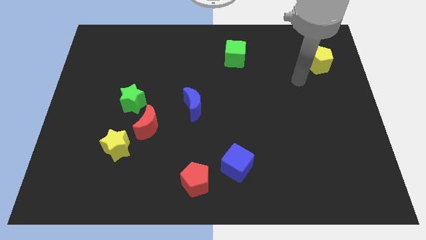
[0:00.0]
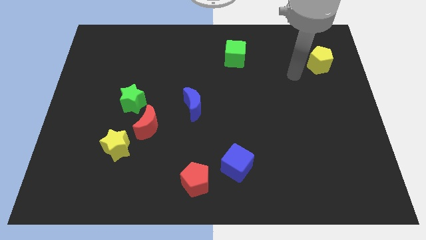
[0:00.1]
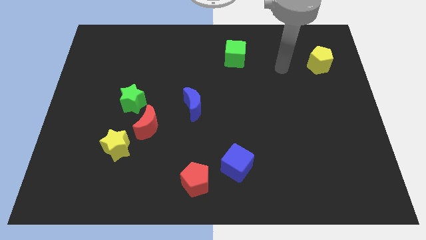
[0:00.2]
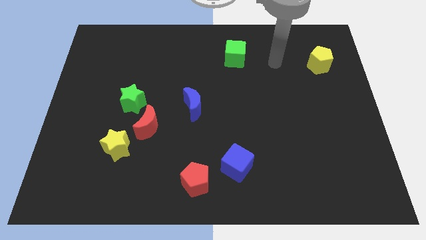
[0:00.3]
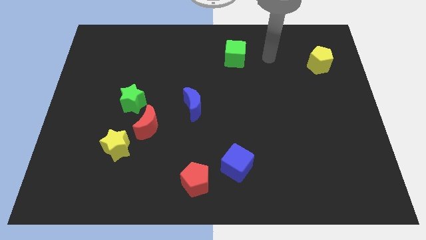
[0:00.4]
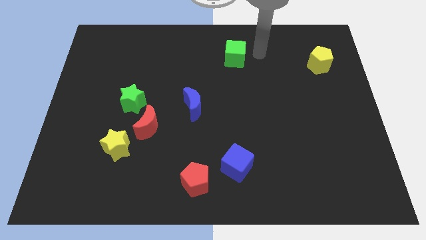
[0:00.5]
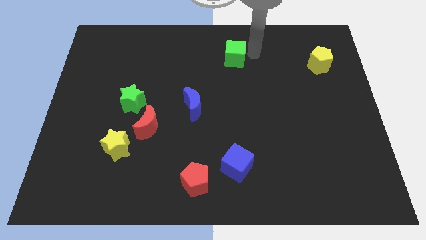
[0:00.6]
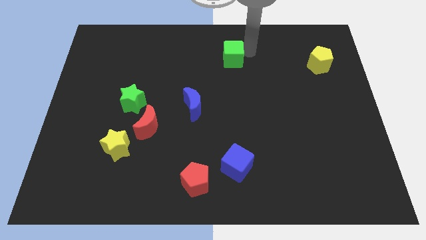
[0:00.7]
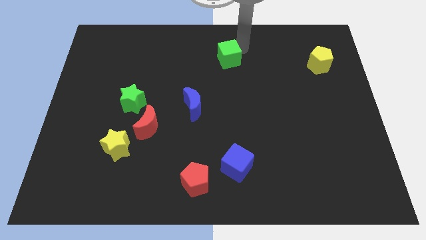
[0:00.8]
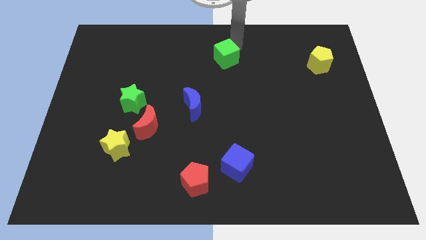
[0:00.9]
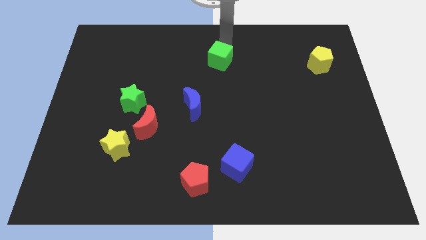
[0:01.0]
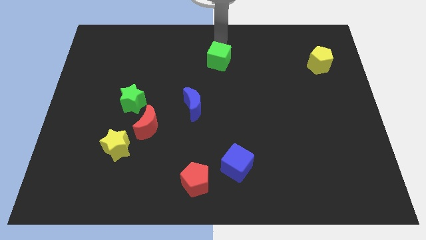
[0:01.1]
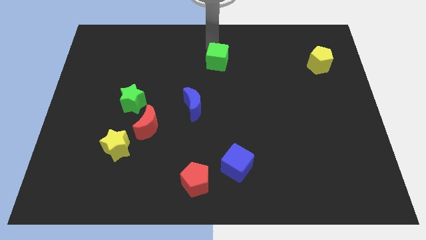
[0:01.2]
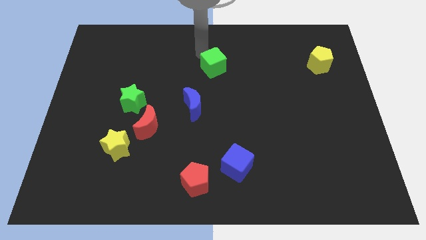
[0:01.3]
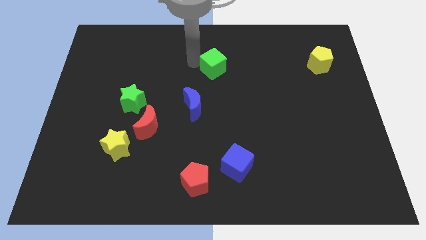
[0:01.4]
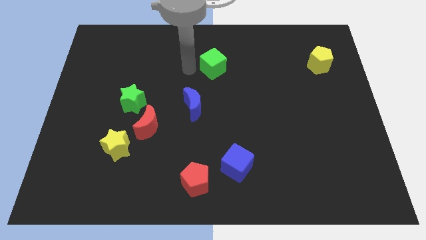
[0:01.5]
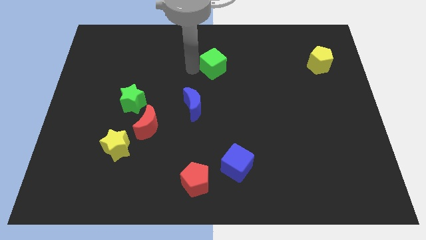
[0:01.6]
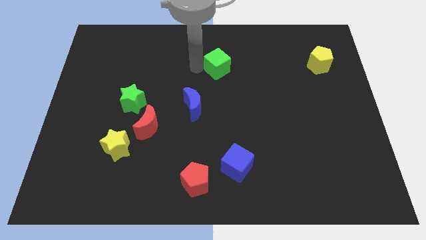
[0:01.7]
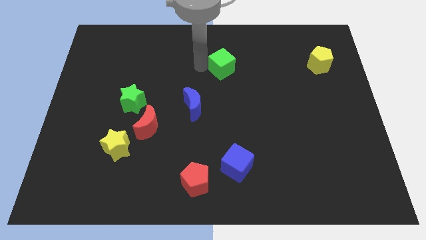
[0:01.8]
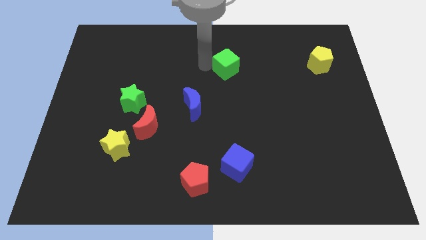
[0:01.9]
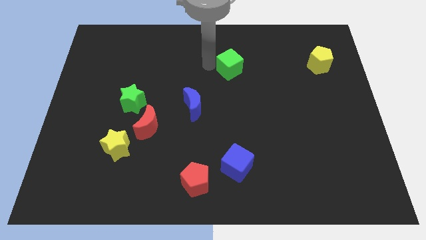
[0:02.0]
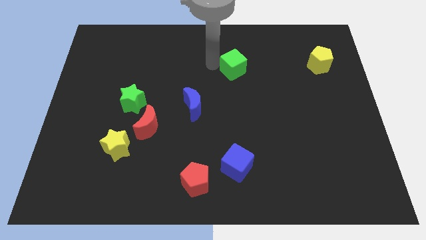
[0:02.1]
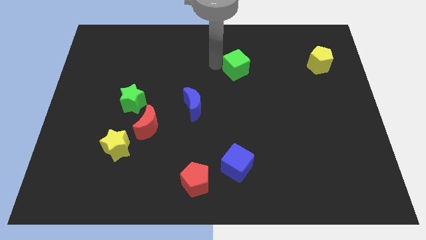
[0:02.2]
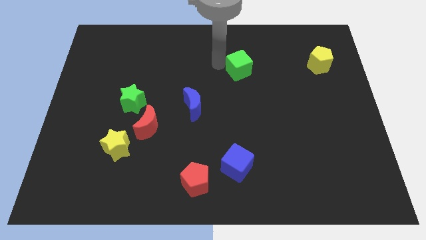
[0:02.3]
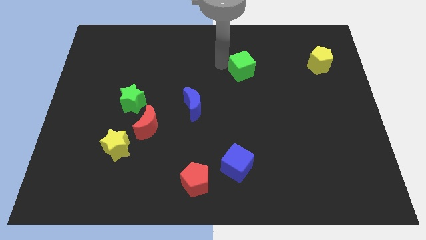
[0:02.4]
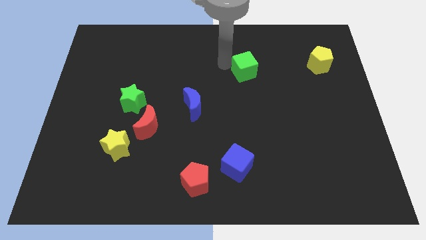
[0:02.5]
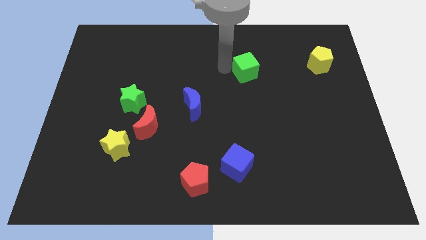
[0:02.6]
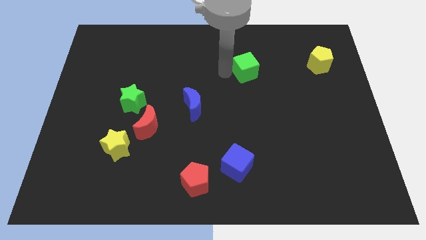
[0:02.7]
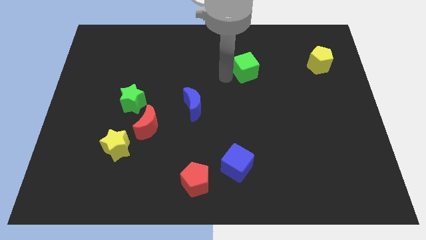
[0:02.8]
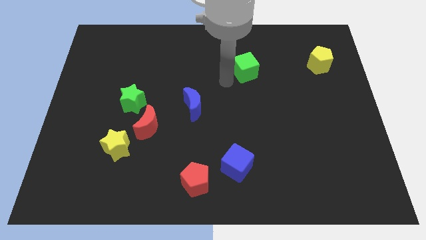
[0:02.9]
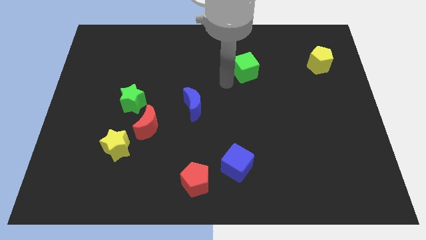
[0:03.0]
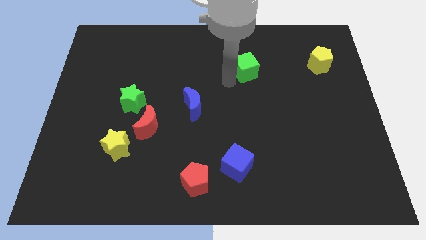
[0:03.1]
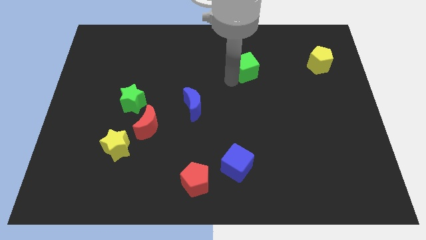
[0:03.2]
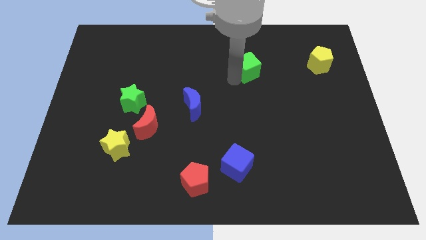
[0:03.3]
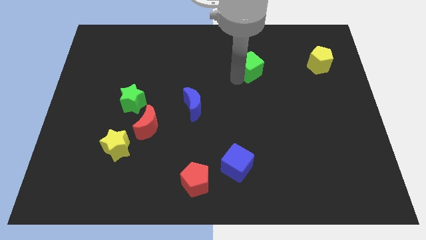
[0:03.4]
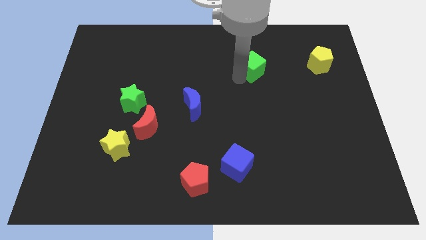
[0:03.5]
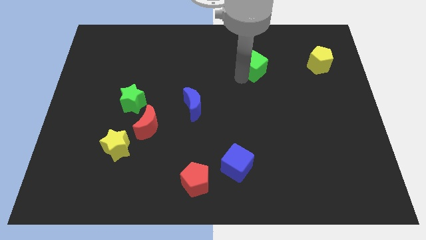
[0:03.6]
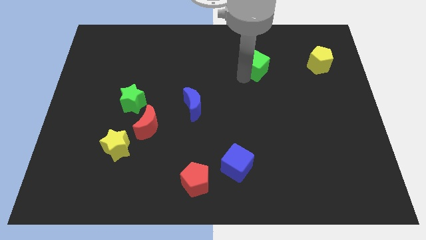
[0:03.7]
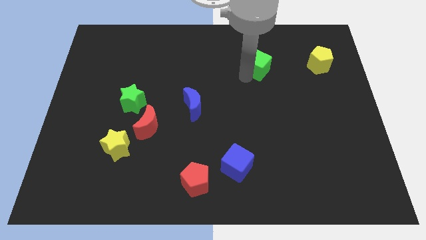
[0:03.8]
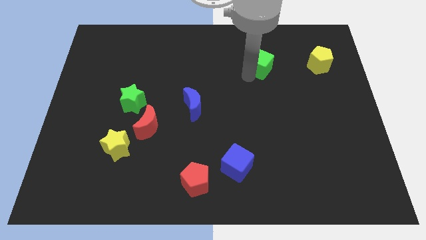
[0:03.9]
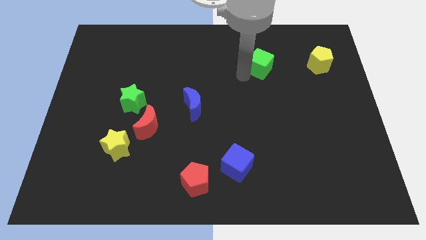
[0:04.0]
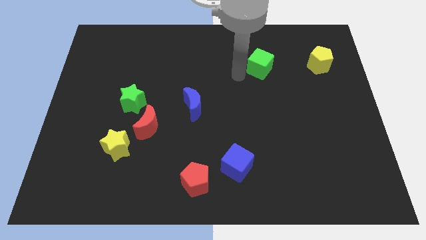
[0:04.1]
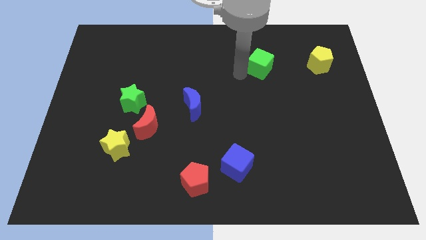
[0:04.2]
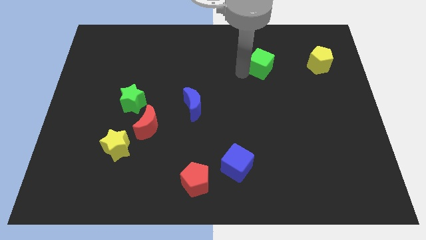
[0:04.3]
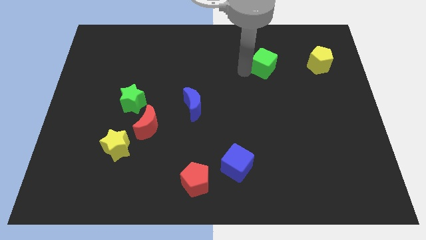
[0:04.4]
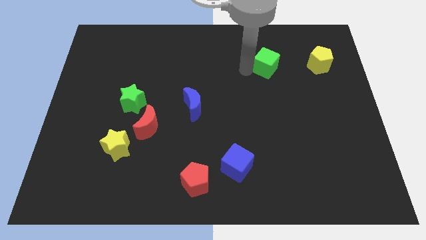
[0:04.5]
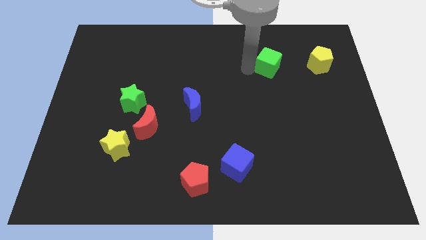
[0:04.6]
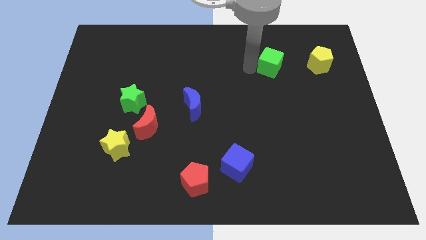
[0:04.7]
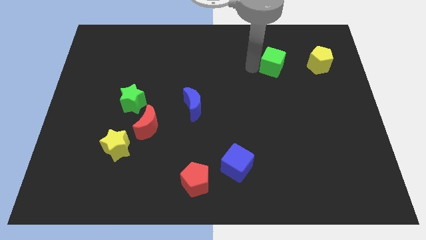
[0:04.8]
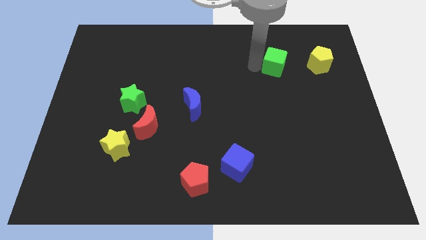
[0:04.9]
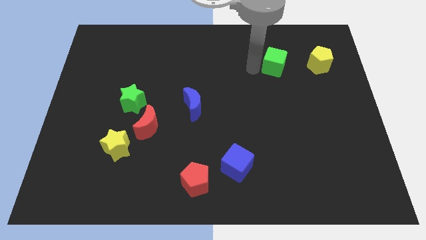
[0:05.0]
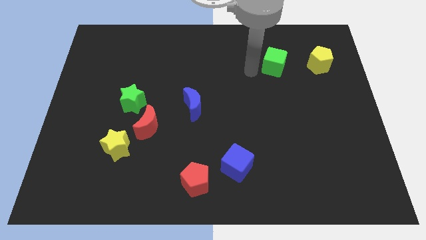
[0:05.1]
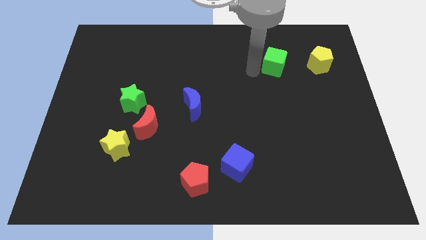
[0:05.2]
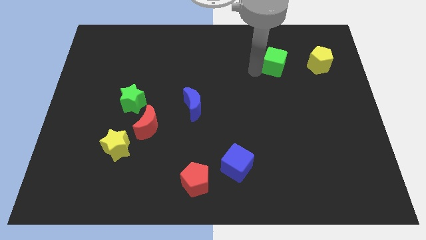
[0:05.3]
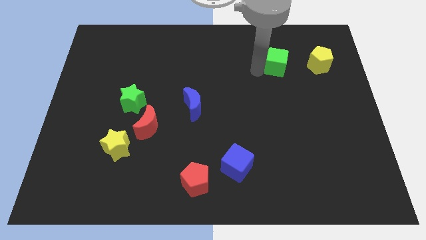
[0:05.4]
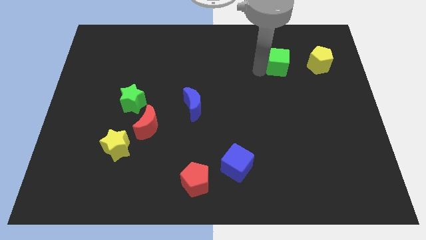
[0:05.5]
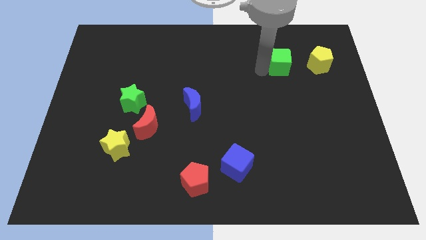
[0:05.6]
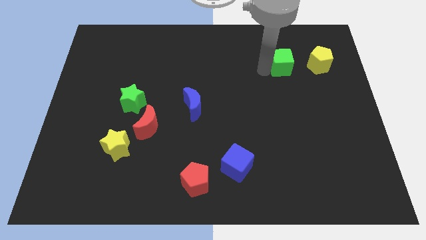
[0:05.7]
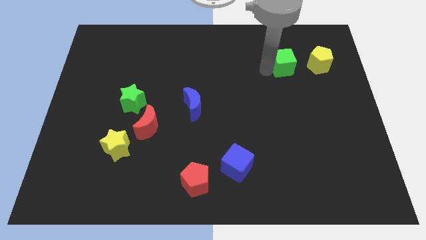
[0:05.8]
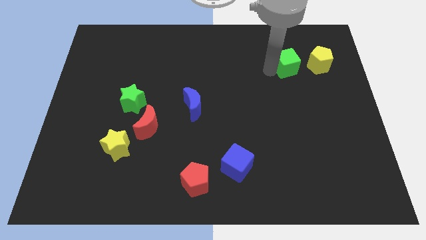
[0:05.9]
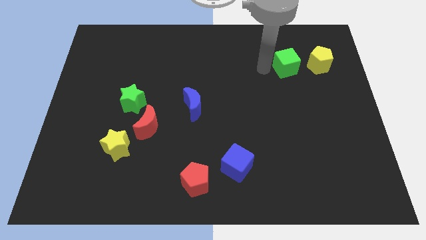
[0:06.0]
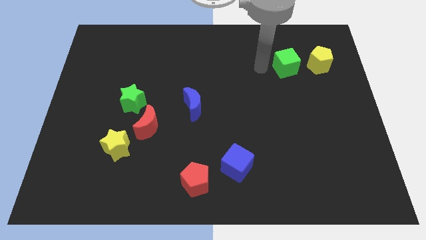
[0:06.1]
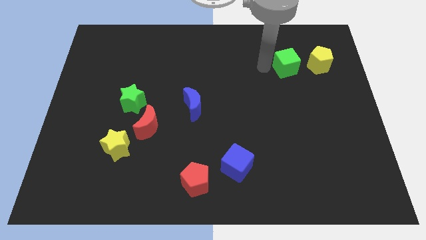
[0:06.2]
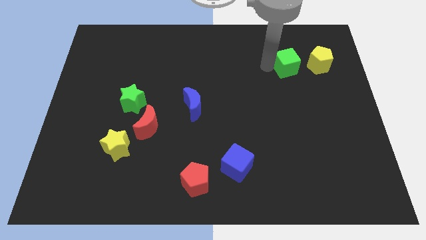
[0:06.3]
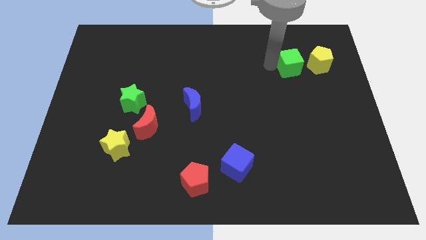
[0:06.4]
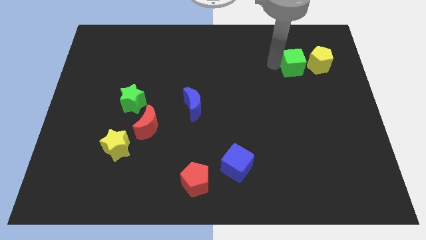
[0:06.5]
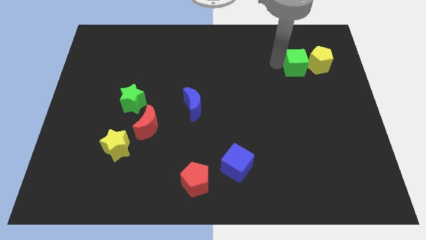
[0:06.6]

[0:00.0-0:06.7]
move the green cube to the yellow pentagon
